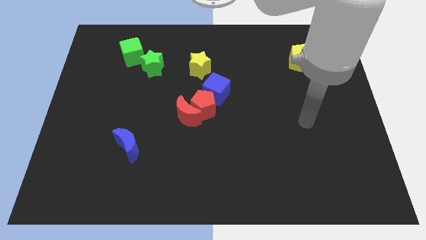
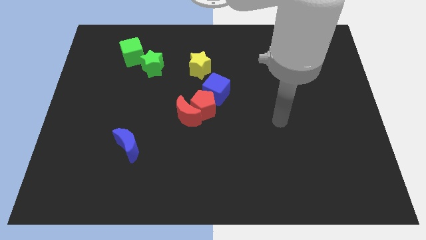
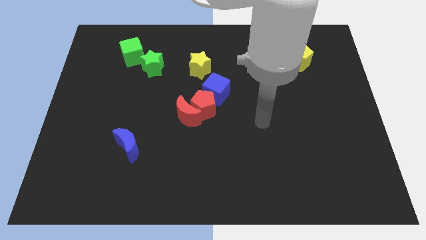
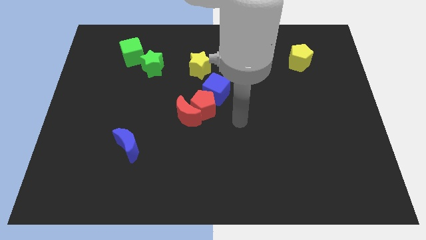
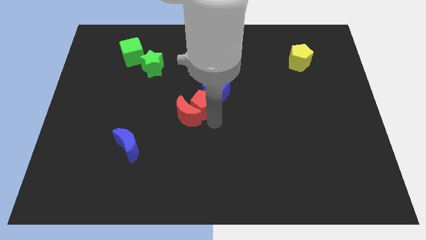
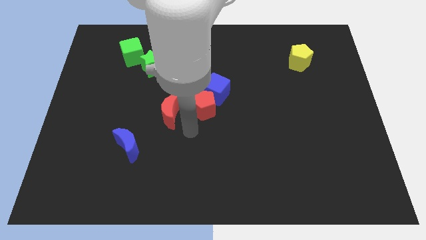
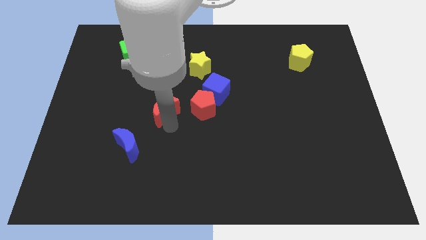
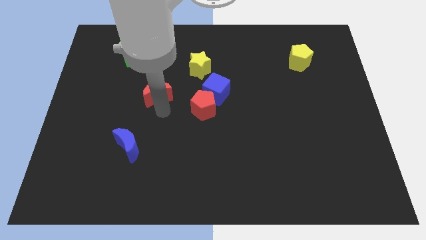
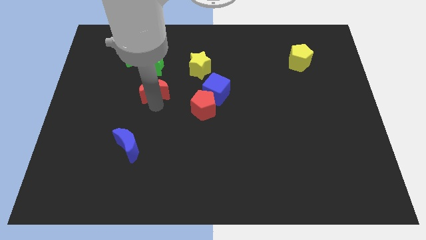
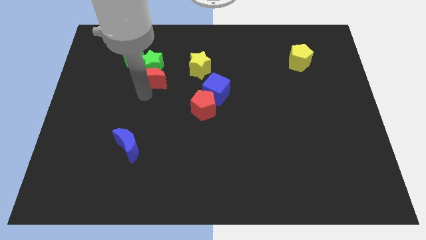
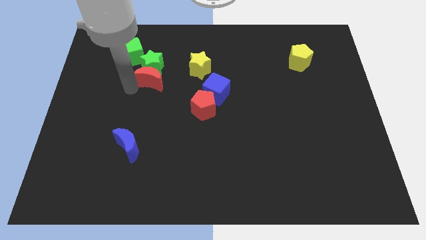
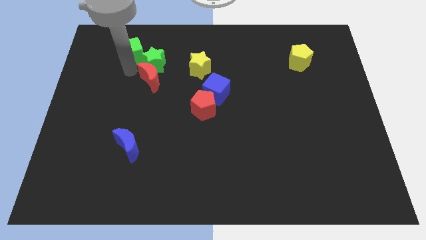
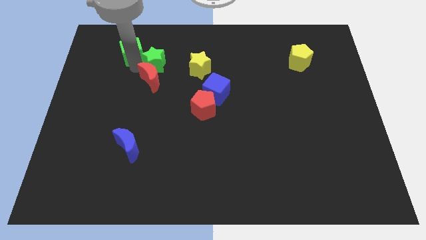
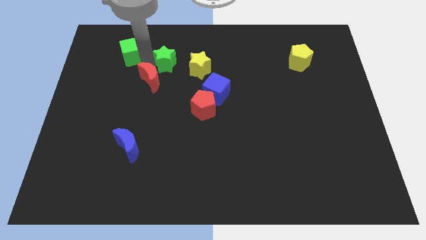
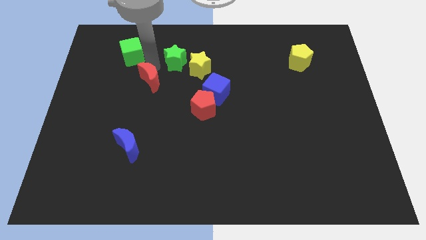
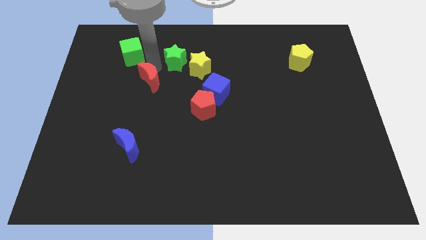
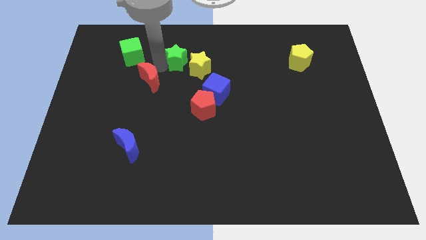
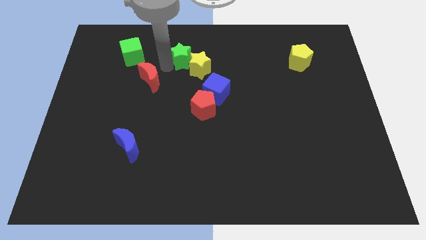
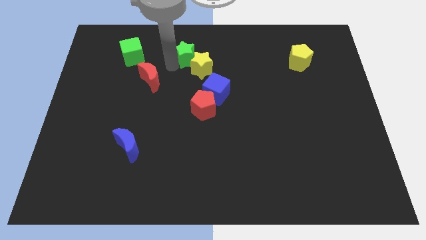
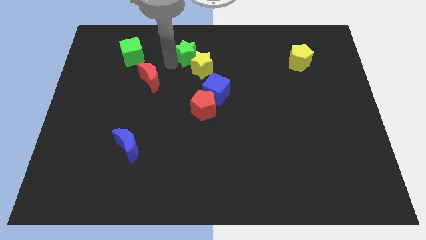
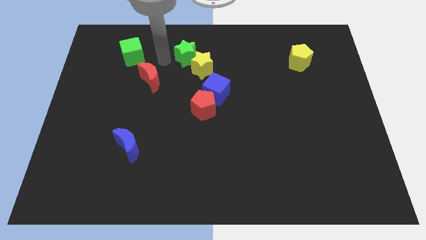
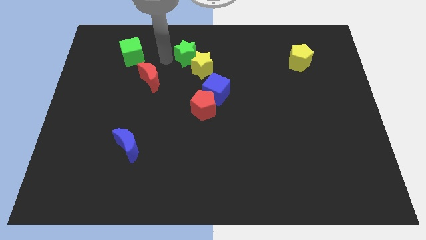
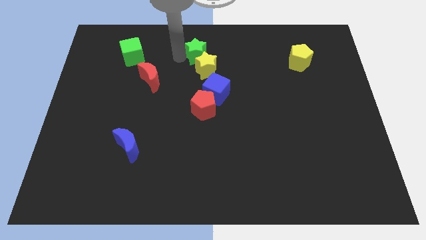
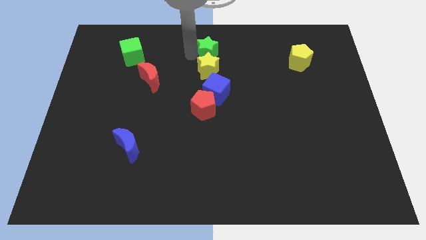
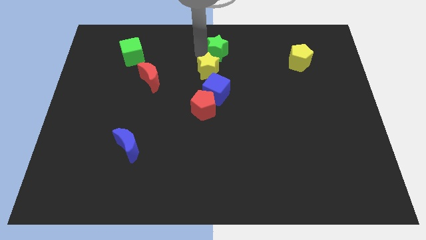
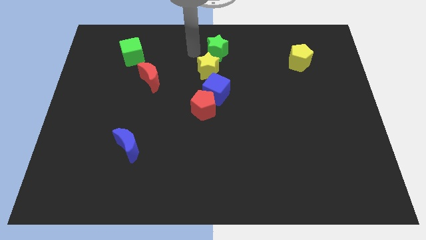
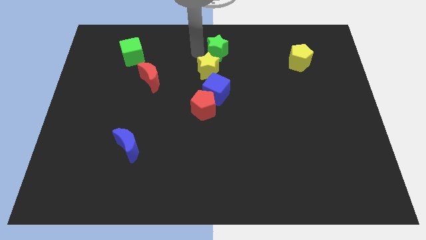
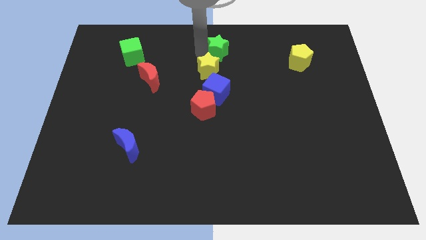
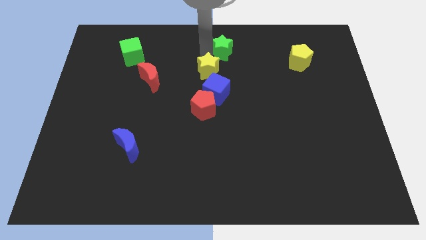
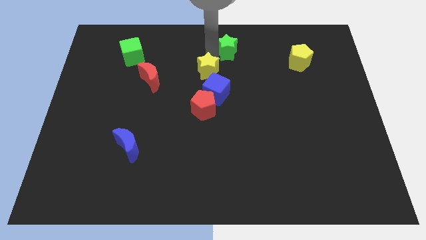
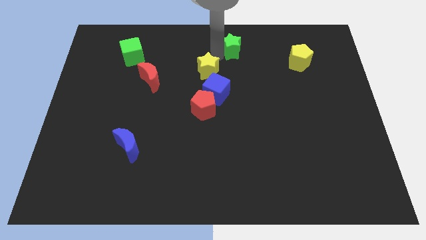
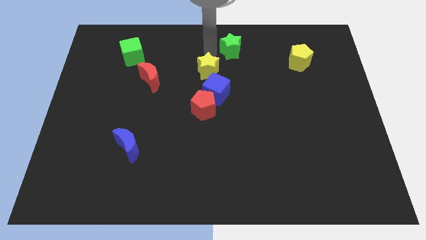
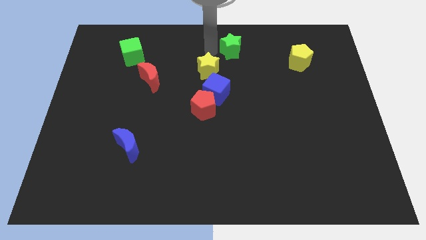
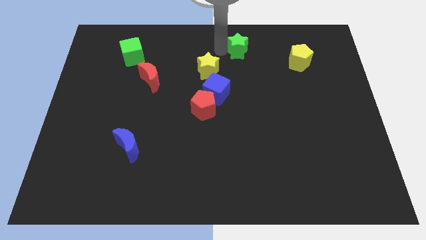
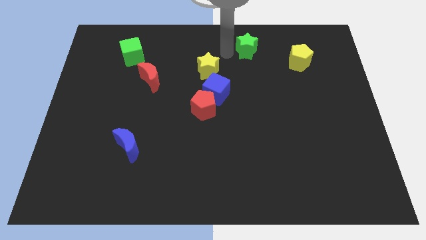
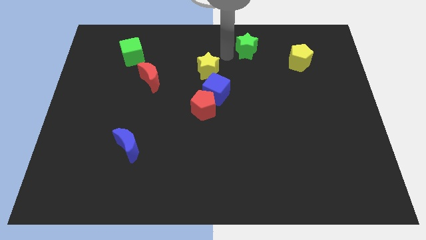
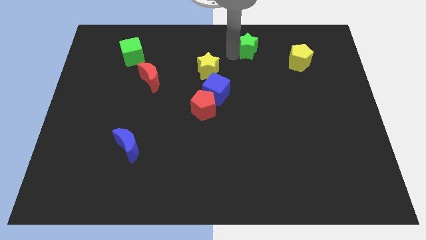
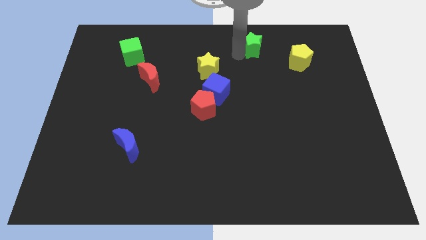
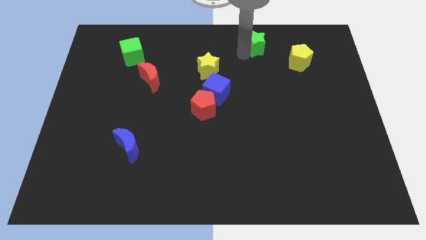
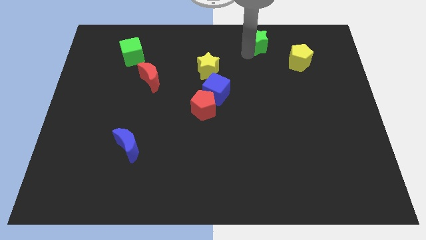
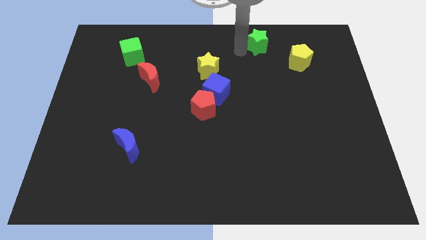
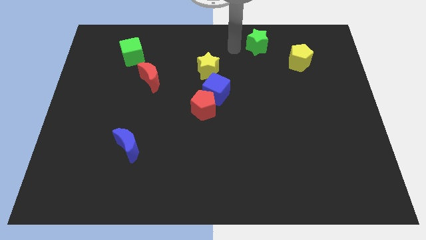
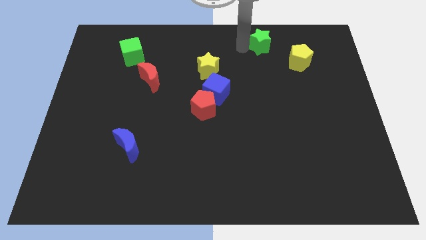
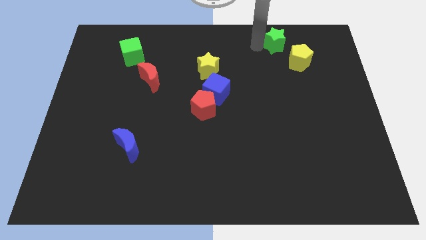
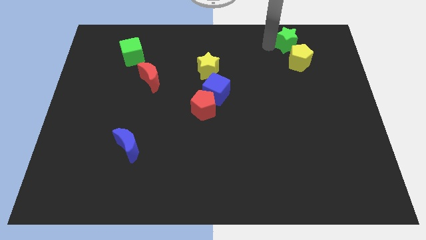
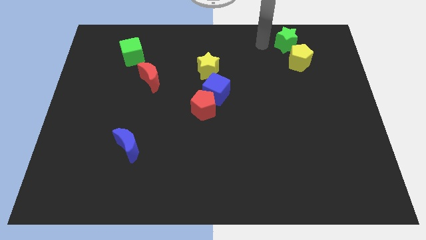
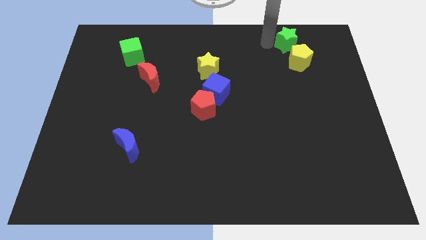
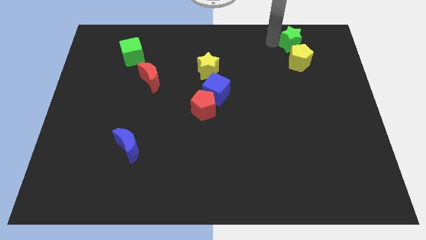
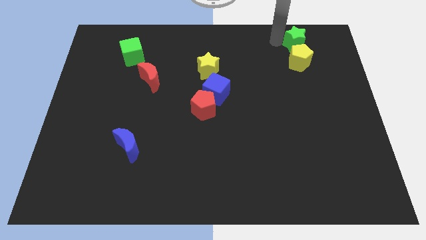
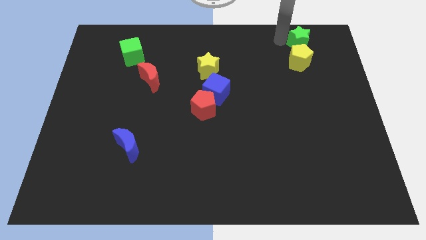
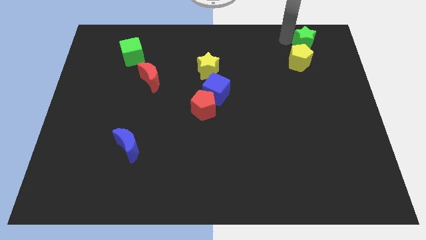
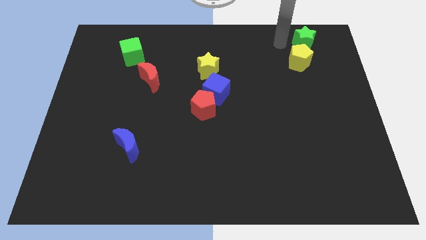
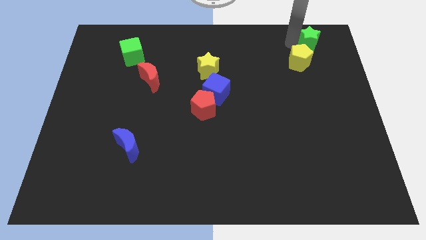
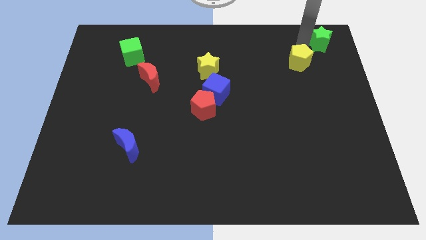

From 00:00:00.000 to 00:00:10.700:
slide the green star to the upper right corner

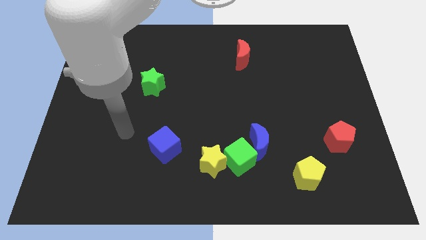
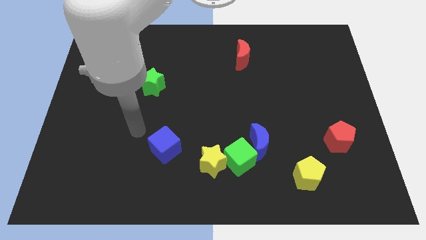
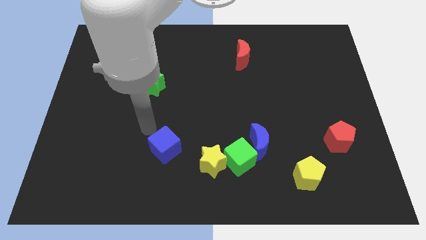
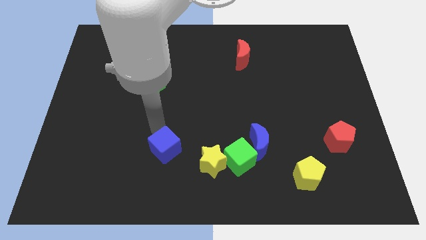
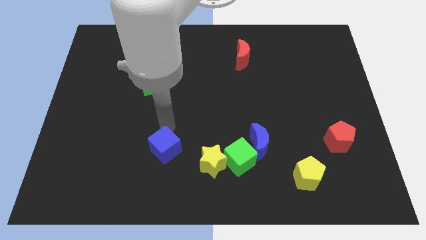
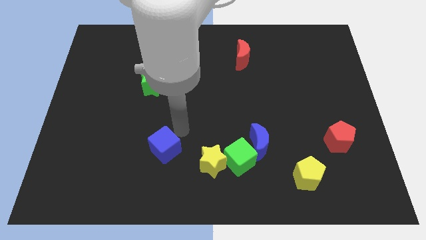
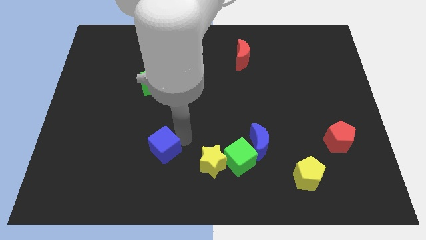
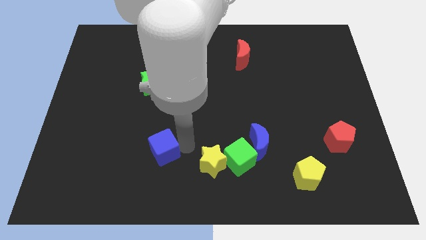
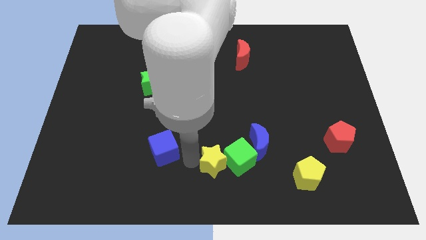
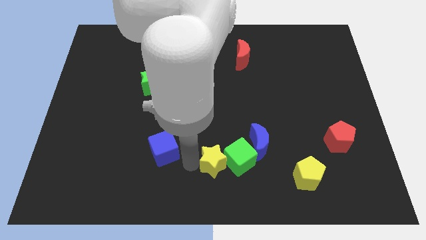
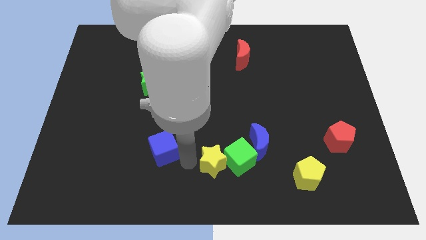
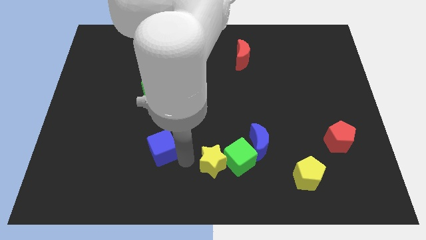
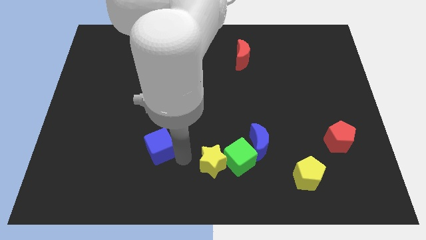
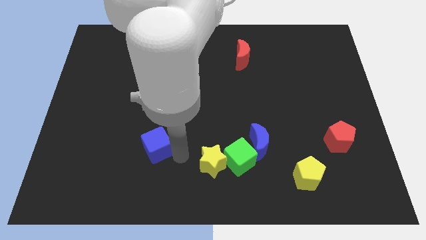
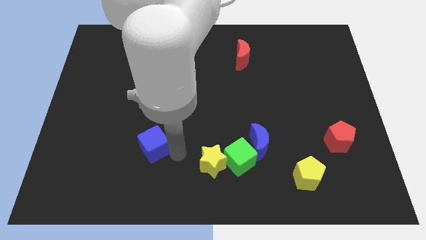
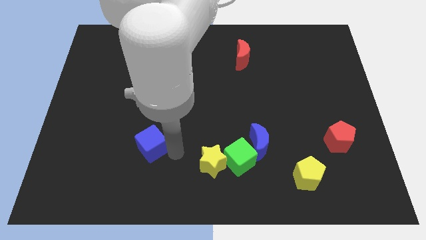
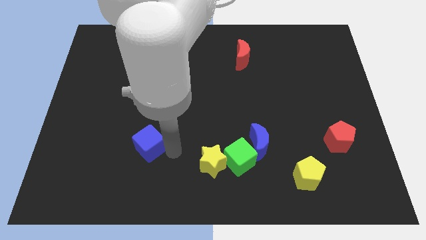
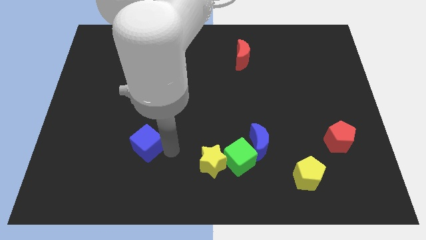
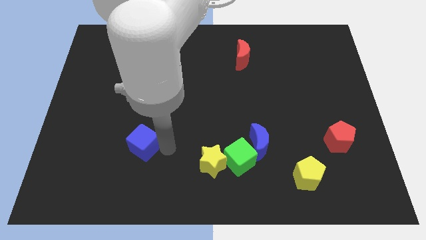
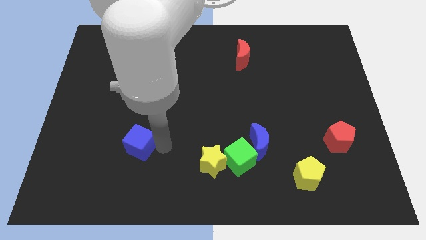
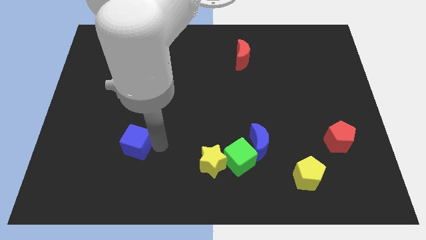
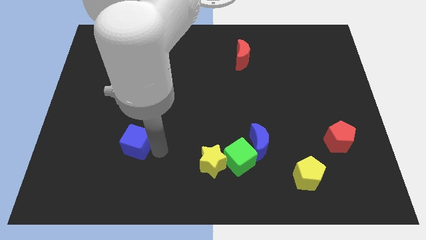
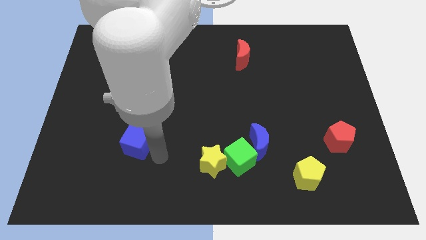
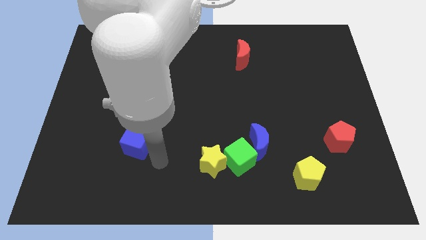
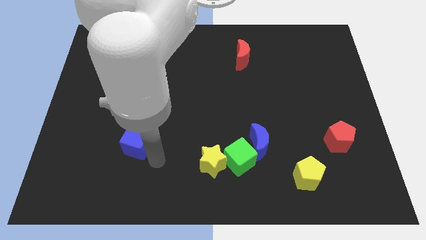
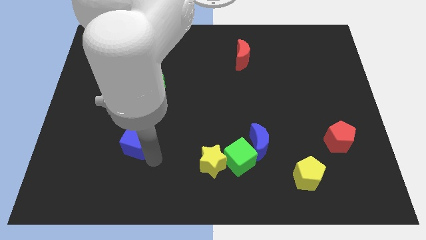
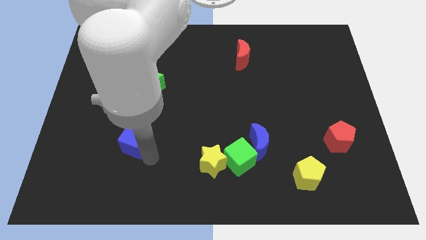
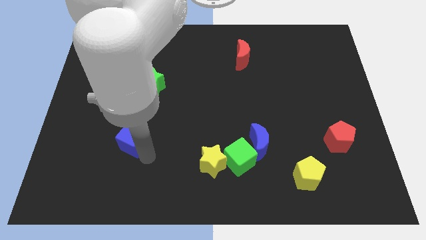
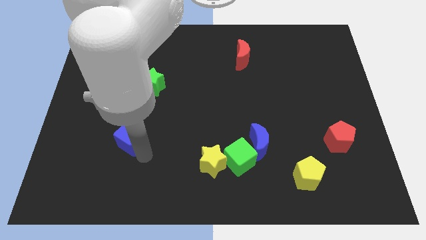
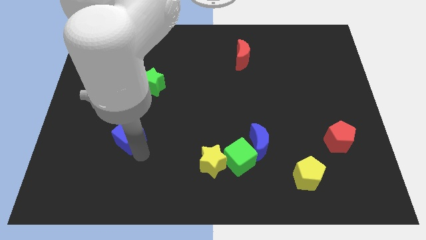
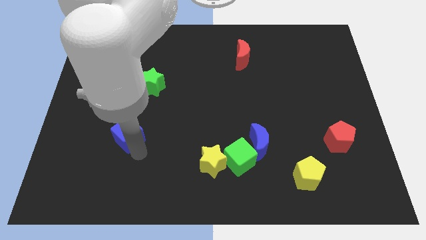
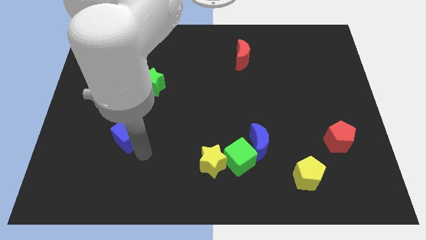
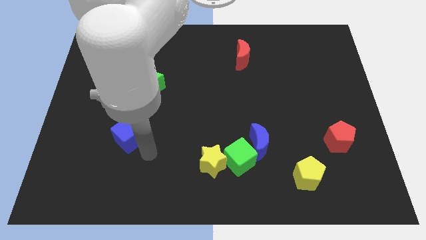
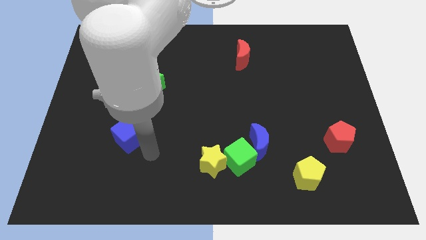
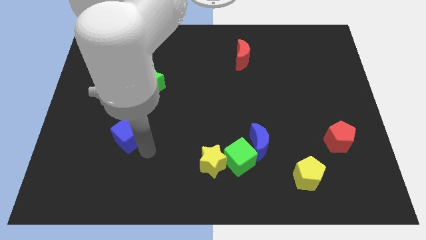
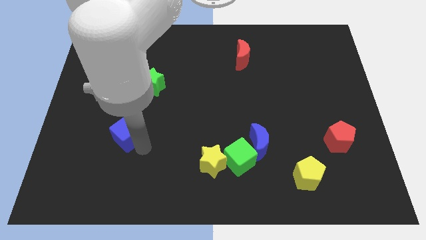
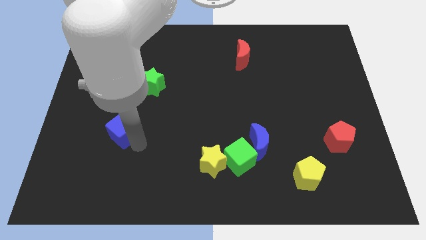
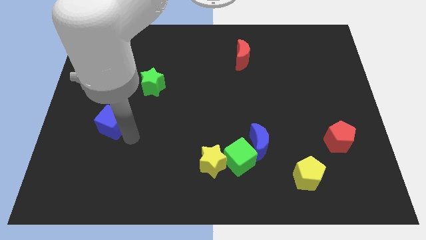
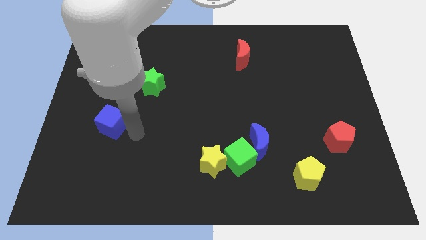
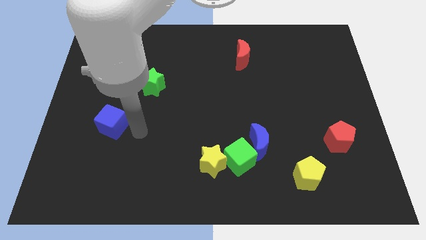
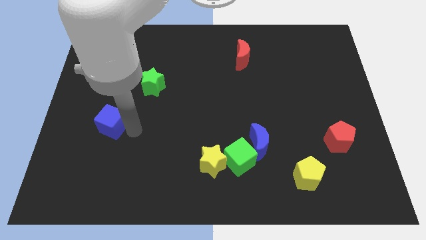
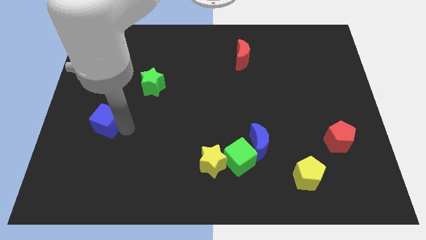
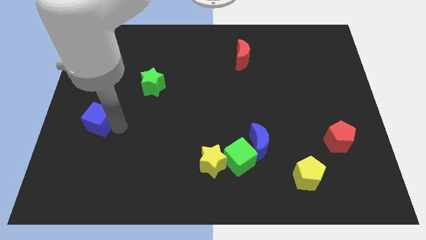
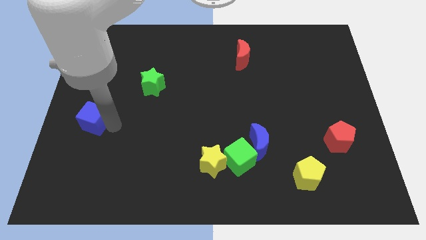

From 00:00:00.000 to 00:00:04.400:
move the blue cube to the center left
